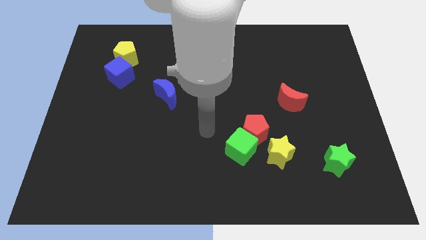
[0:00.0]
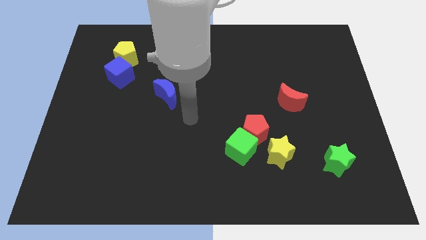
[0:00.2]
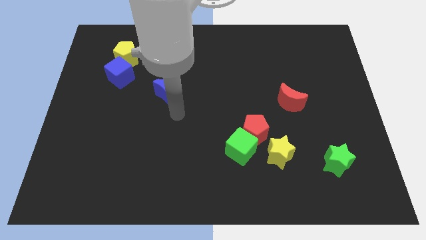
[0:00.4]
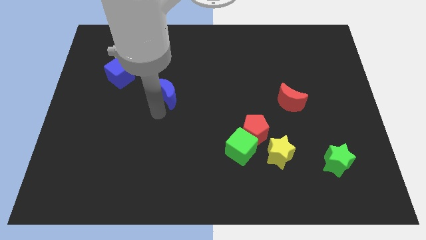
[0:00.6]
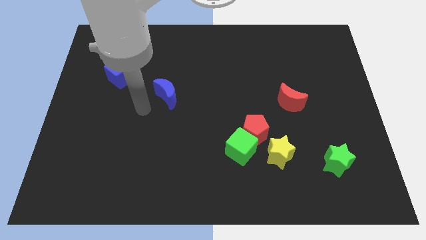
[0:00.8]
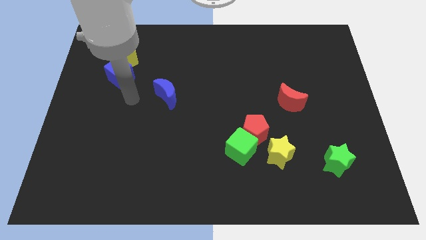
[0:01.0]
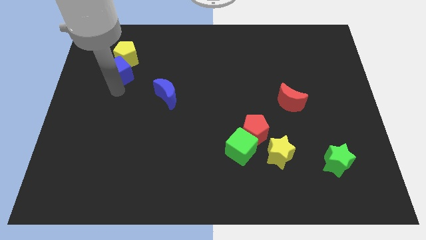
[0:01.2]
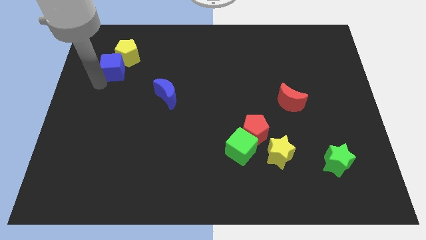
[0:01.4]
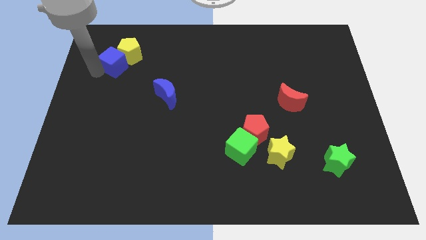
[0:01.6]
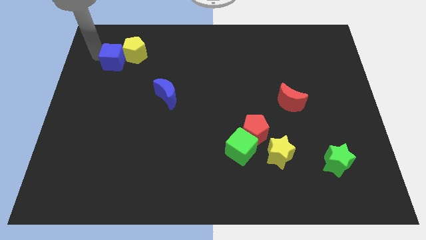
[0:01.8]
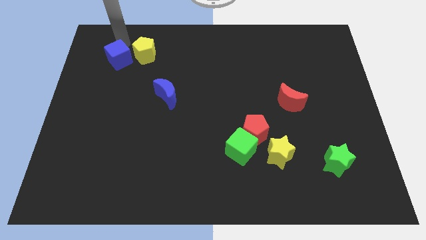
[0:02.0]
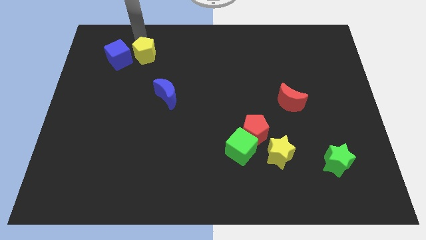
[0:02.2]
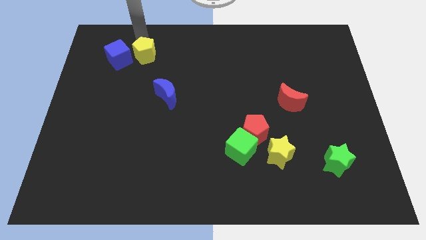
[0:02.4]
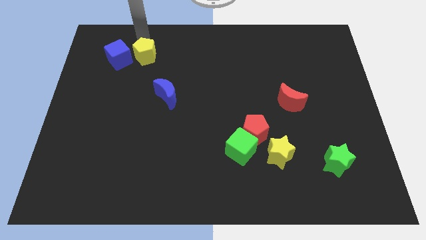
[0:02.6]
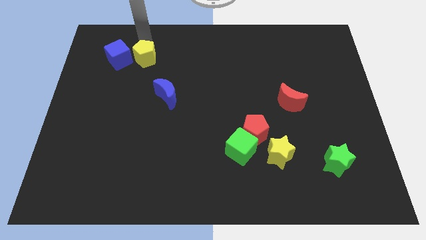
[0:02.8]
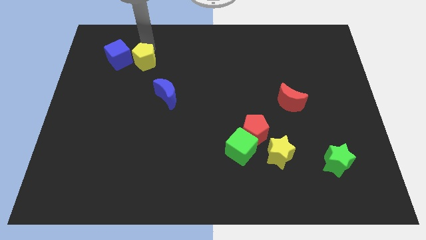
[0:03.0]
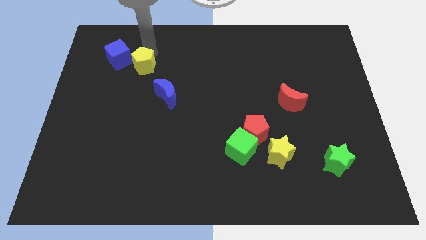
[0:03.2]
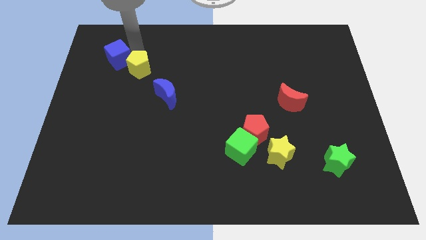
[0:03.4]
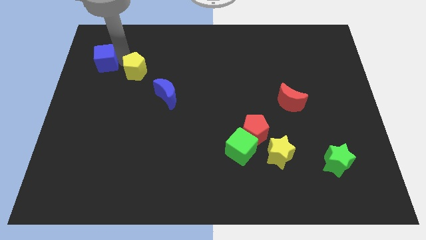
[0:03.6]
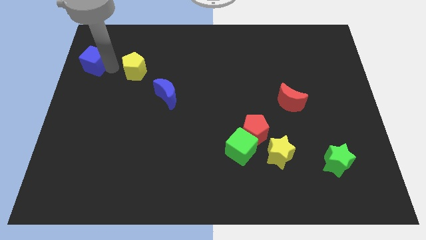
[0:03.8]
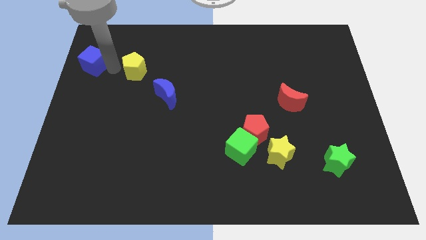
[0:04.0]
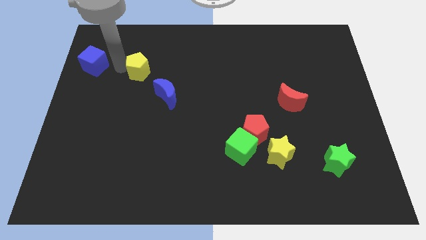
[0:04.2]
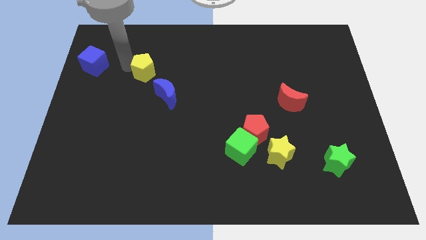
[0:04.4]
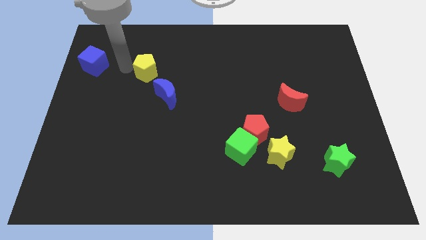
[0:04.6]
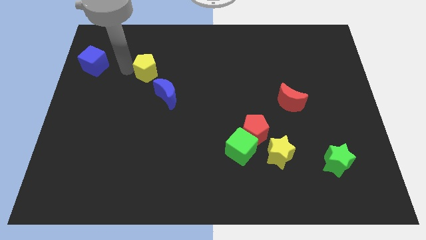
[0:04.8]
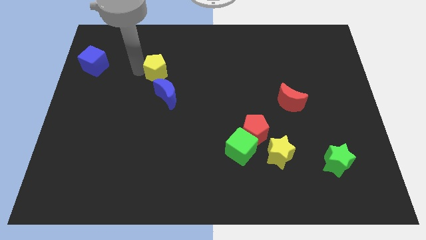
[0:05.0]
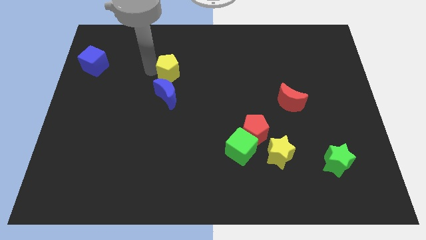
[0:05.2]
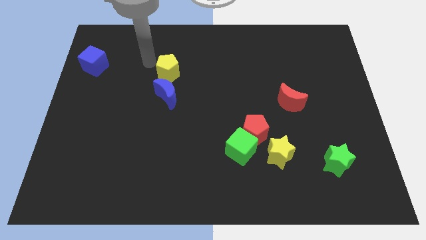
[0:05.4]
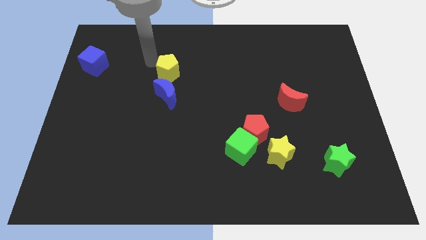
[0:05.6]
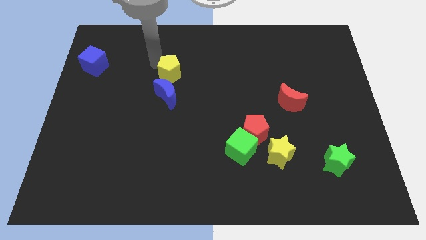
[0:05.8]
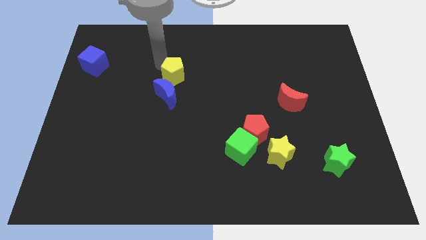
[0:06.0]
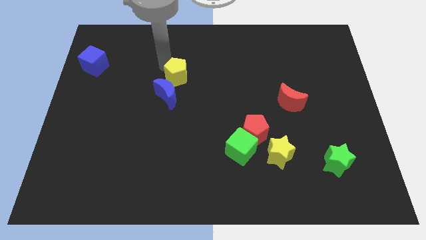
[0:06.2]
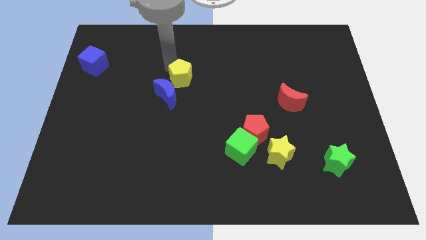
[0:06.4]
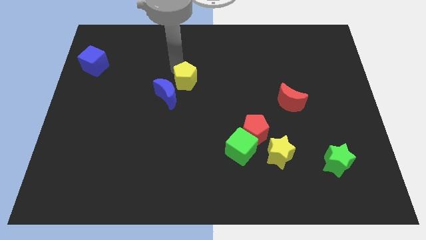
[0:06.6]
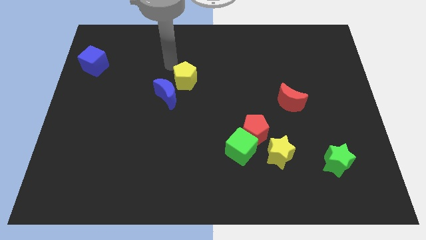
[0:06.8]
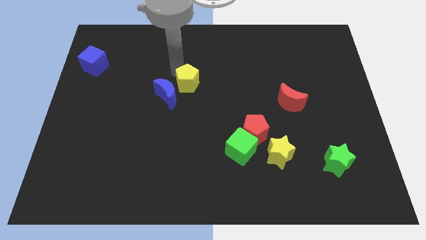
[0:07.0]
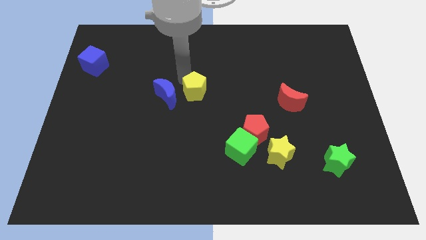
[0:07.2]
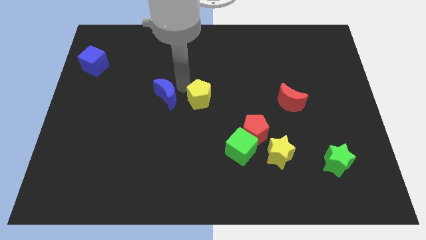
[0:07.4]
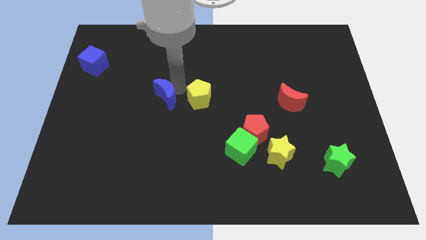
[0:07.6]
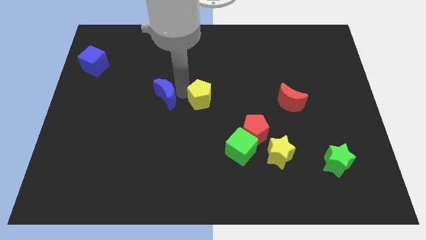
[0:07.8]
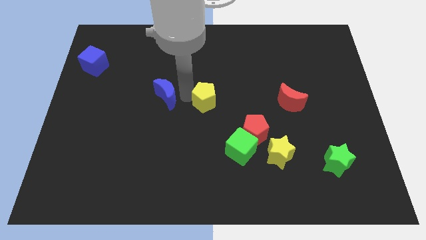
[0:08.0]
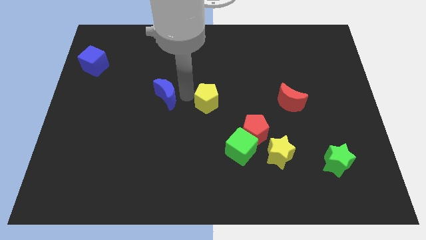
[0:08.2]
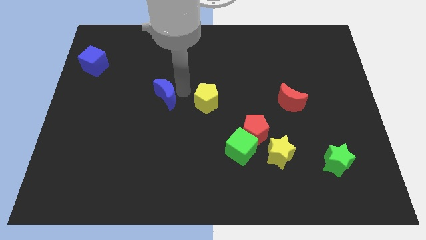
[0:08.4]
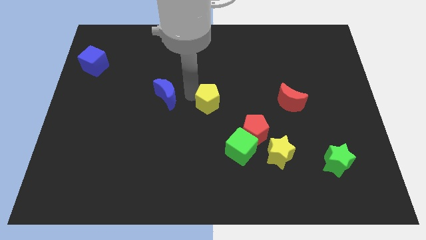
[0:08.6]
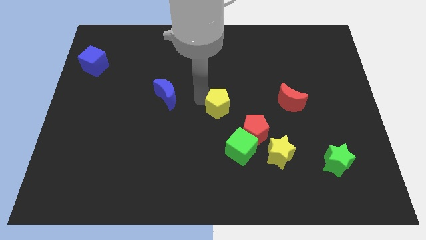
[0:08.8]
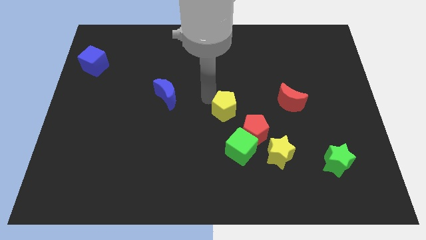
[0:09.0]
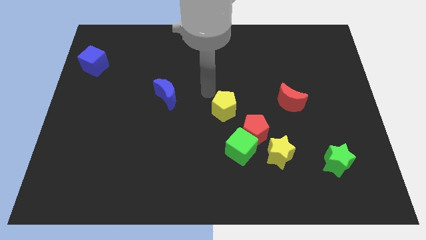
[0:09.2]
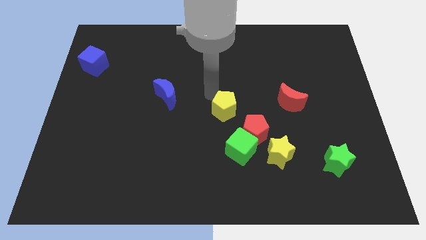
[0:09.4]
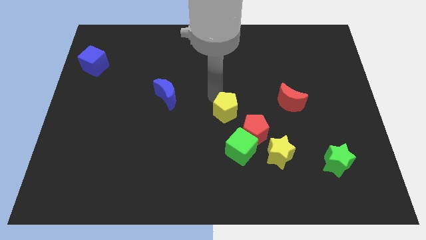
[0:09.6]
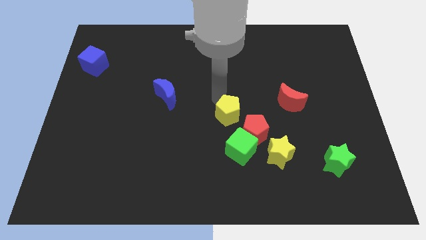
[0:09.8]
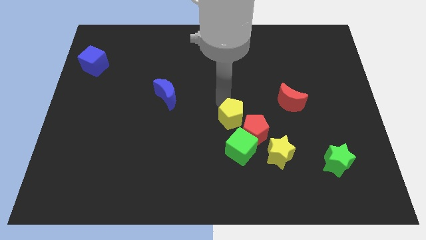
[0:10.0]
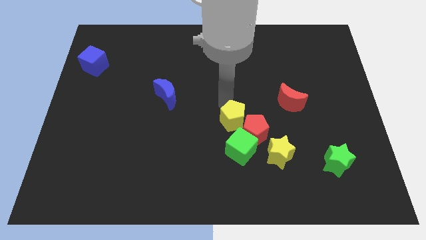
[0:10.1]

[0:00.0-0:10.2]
move the yellow pentagon towards the red pentagon

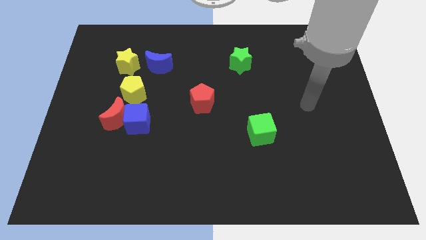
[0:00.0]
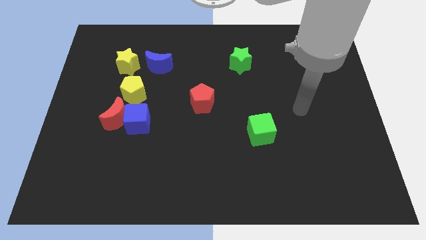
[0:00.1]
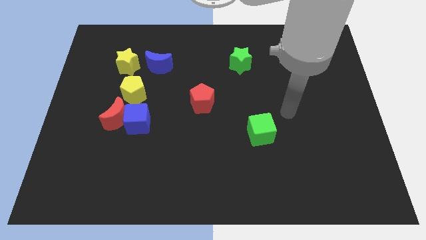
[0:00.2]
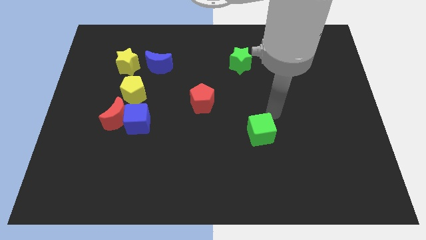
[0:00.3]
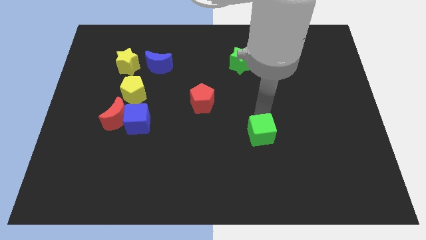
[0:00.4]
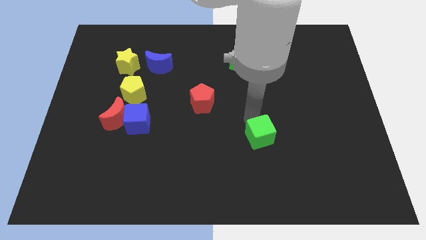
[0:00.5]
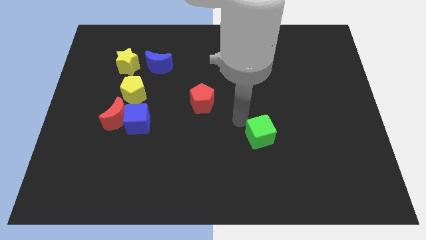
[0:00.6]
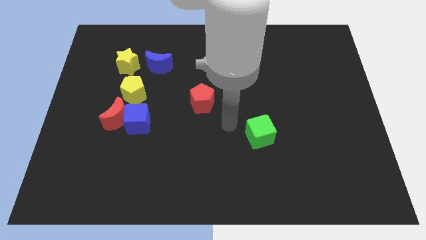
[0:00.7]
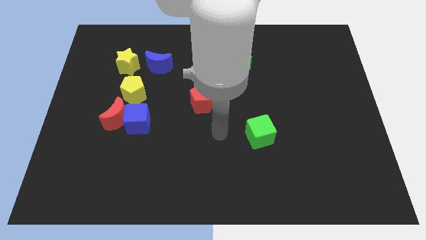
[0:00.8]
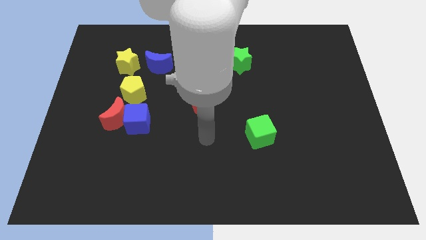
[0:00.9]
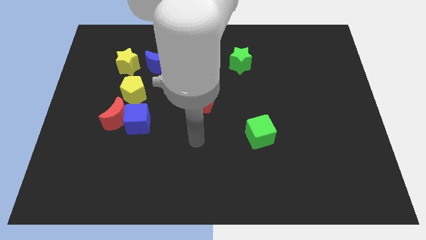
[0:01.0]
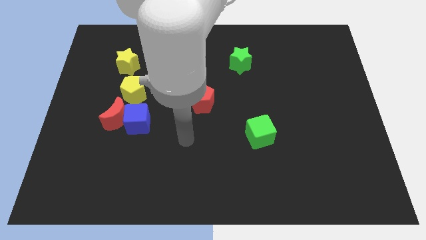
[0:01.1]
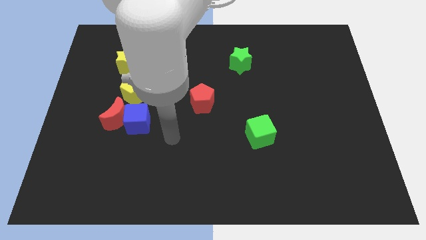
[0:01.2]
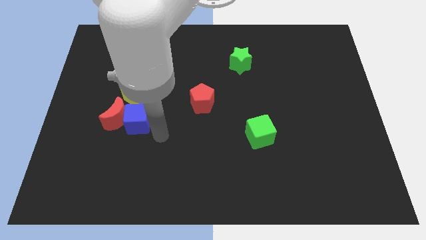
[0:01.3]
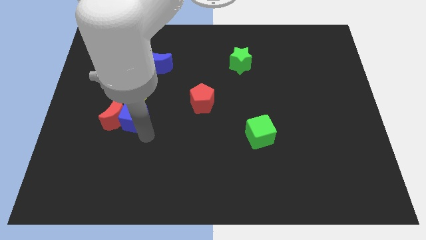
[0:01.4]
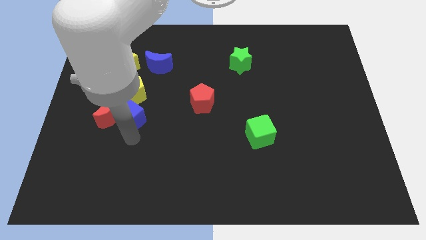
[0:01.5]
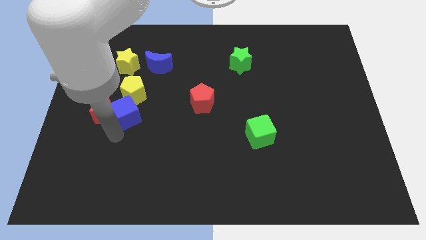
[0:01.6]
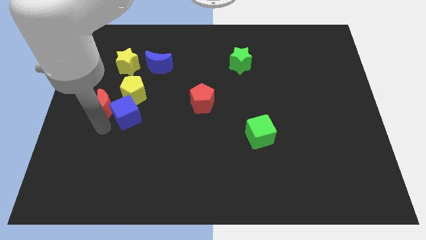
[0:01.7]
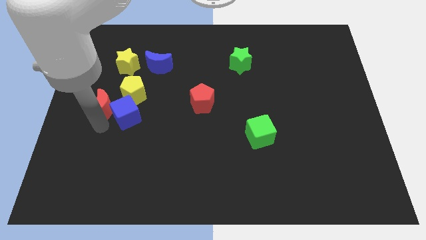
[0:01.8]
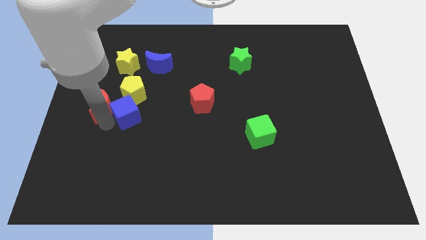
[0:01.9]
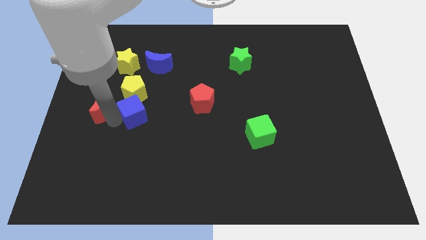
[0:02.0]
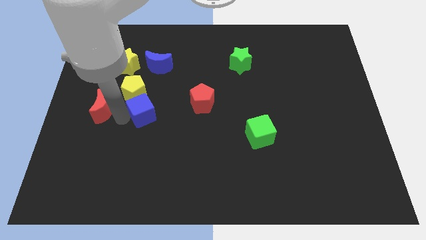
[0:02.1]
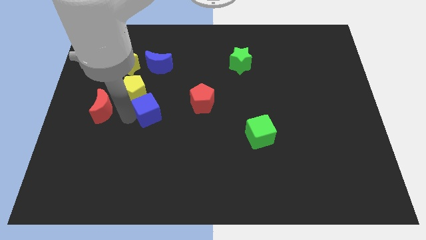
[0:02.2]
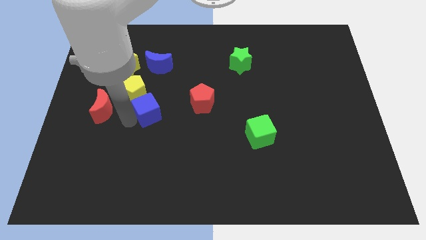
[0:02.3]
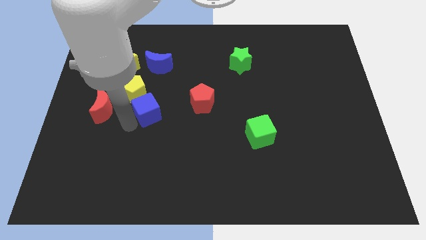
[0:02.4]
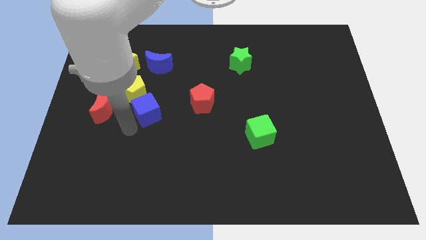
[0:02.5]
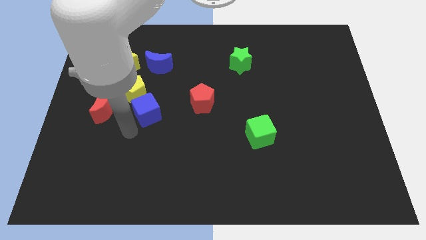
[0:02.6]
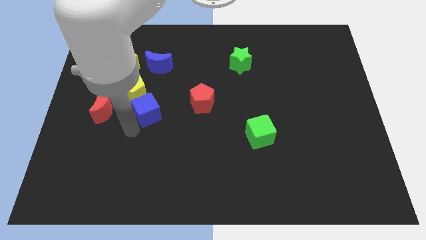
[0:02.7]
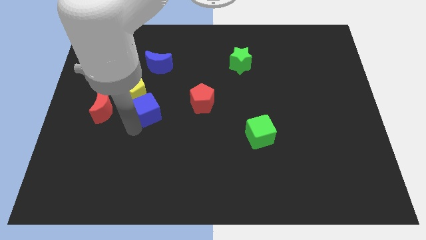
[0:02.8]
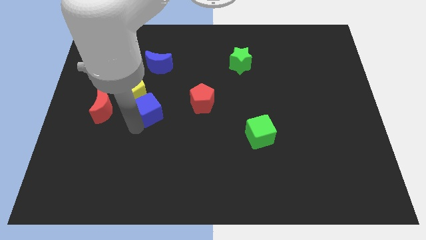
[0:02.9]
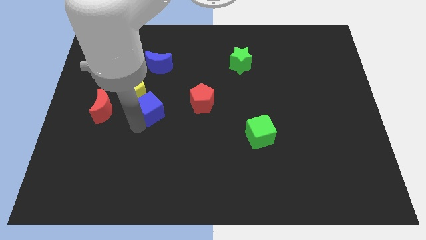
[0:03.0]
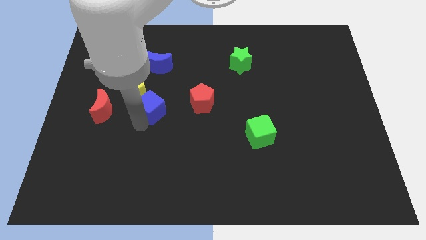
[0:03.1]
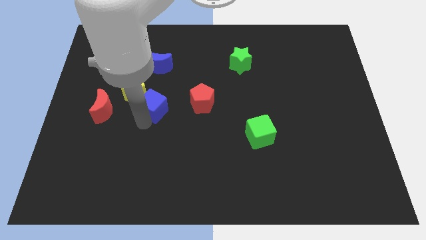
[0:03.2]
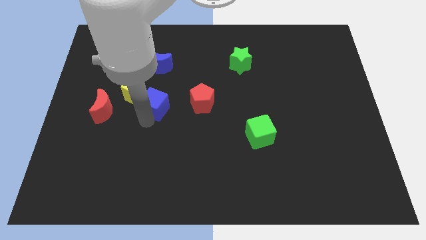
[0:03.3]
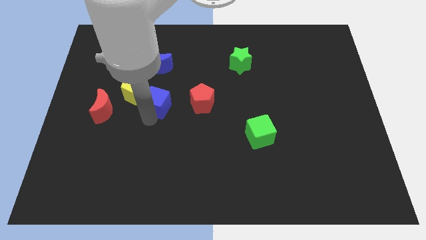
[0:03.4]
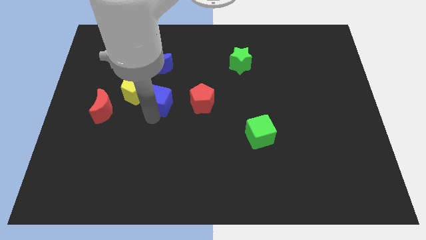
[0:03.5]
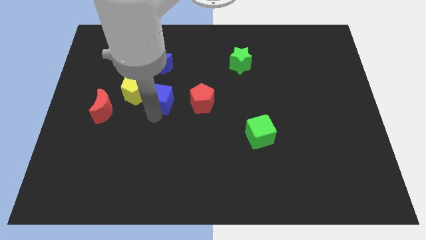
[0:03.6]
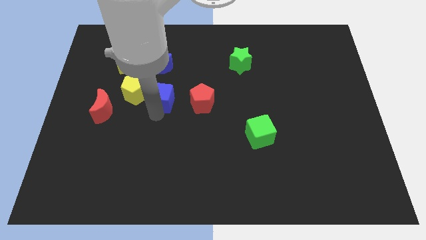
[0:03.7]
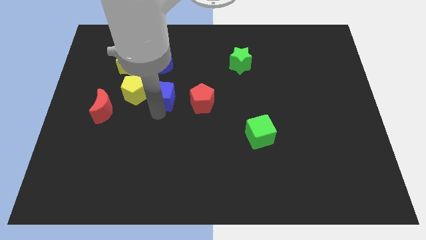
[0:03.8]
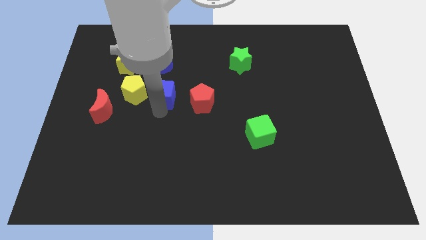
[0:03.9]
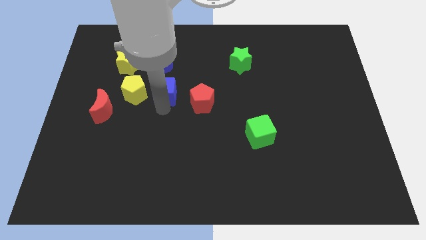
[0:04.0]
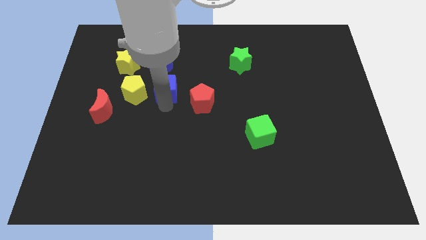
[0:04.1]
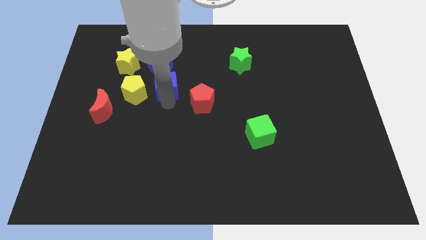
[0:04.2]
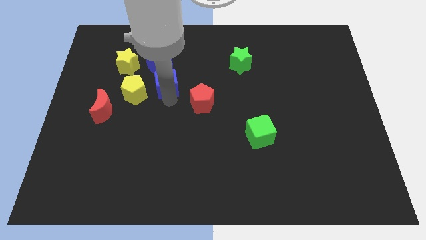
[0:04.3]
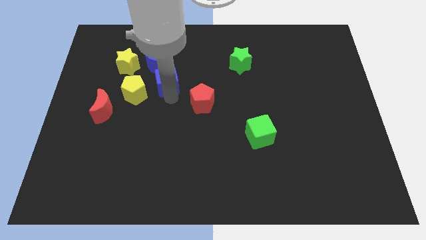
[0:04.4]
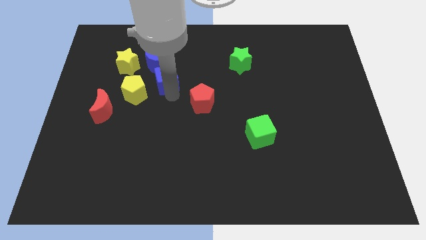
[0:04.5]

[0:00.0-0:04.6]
move the blue cube close to the blue moon
